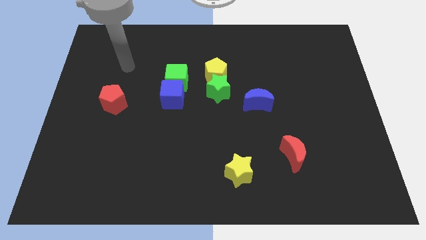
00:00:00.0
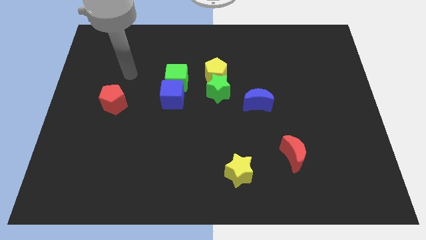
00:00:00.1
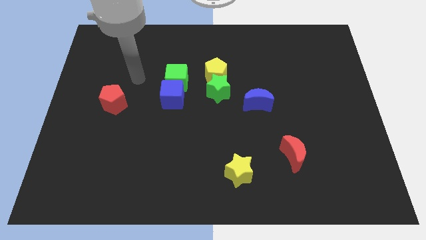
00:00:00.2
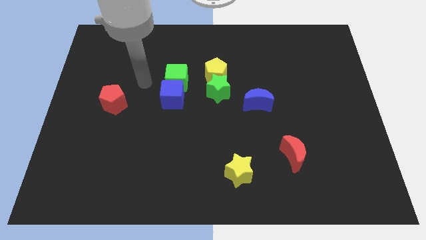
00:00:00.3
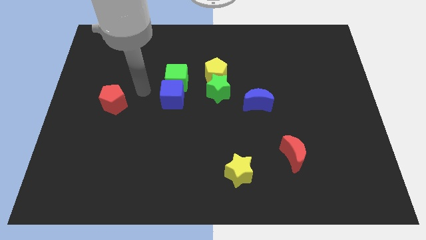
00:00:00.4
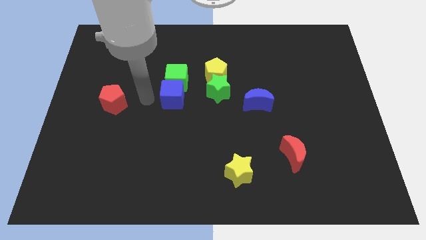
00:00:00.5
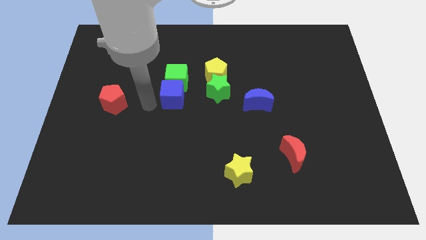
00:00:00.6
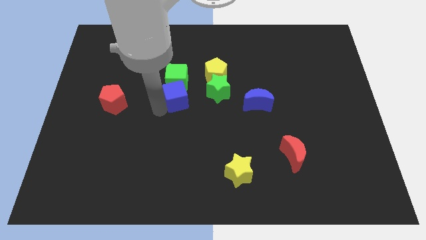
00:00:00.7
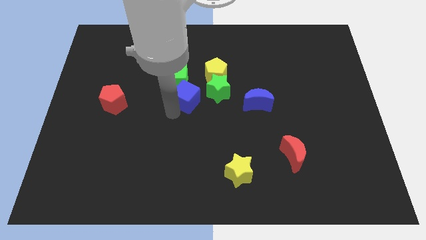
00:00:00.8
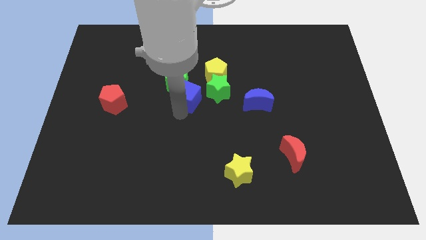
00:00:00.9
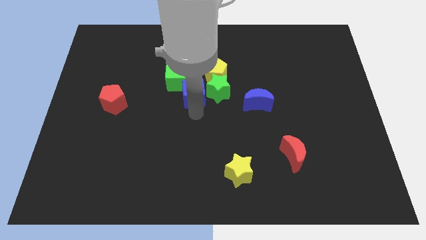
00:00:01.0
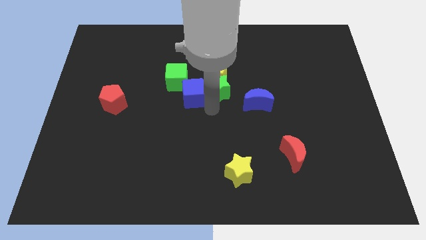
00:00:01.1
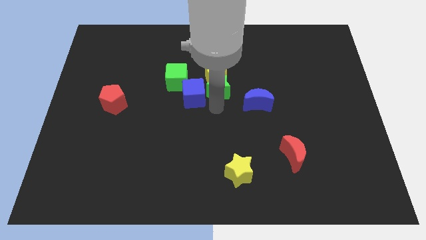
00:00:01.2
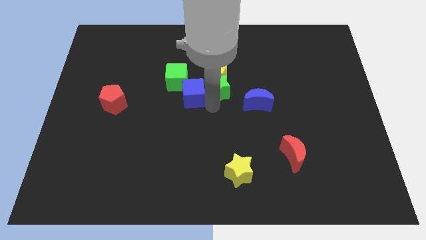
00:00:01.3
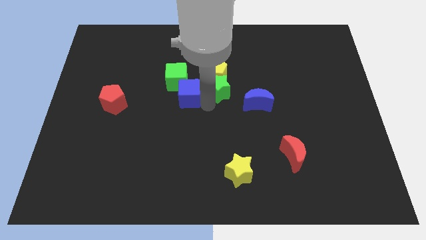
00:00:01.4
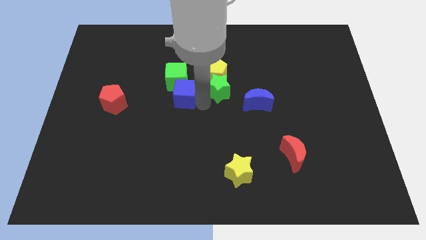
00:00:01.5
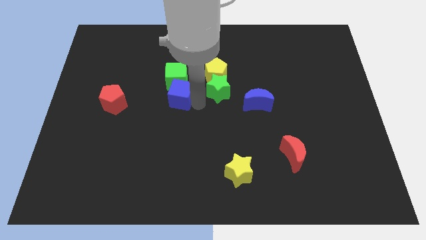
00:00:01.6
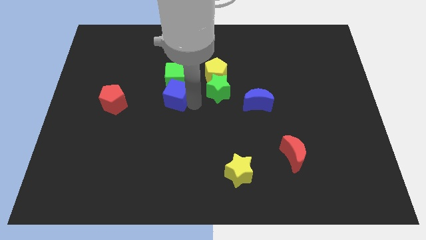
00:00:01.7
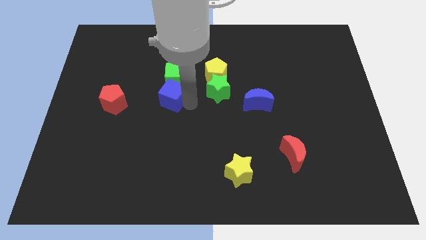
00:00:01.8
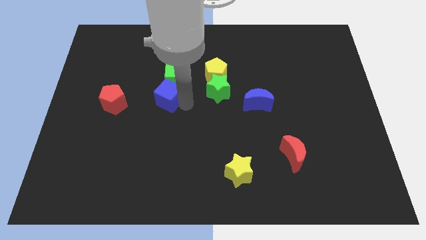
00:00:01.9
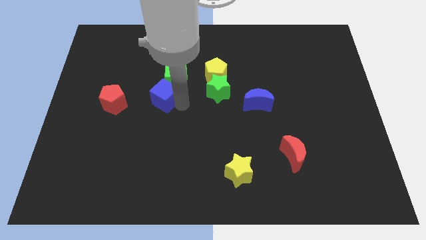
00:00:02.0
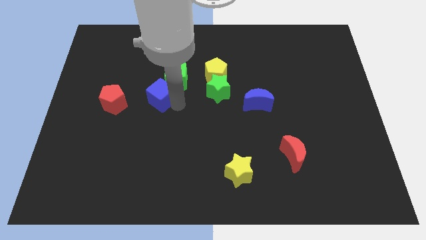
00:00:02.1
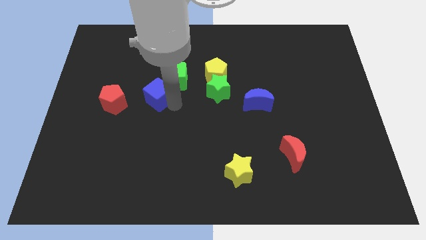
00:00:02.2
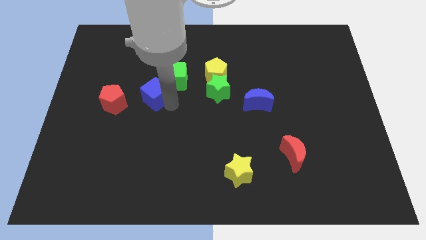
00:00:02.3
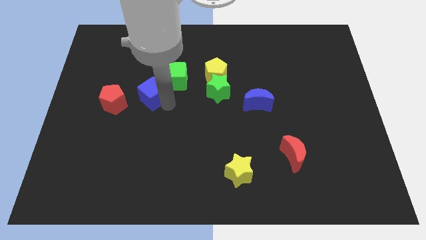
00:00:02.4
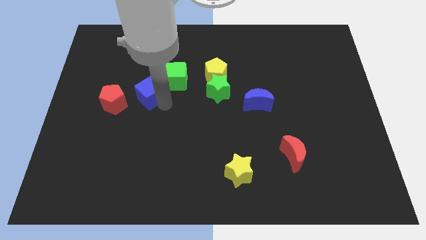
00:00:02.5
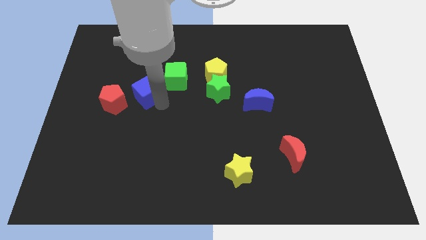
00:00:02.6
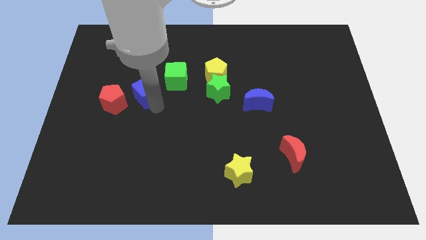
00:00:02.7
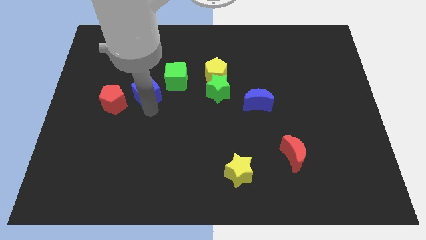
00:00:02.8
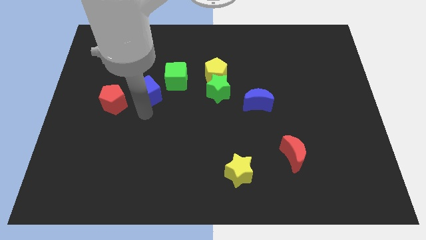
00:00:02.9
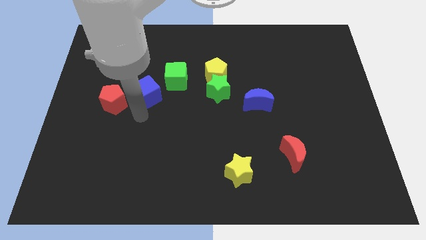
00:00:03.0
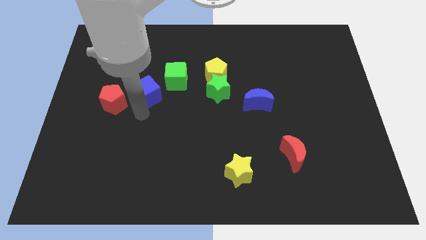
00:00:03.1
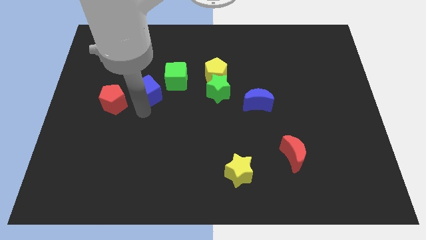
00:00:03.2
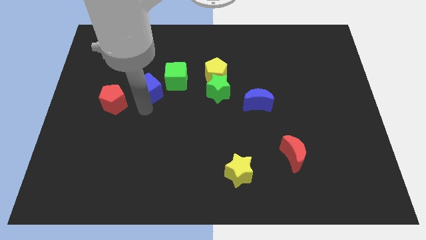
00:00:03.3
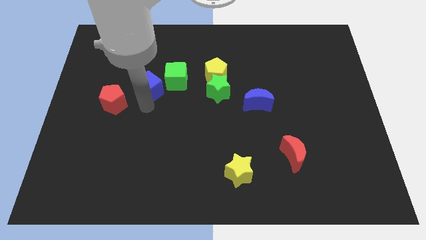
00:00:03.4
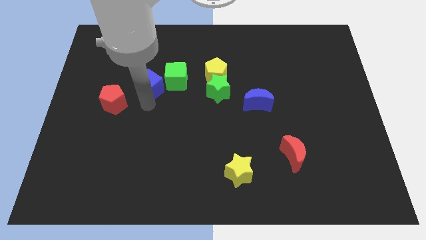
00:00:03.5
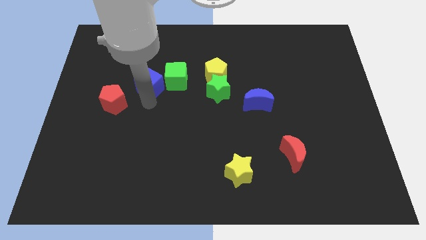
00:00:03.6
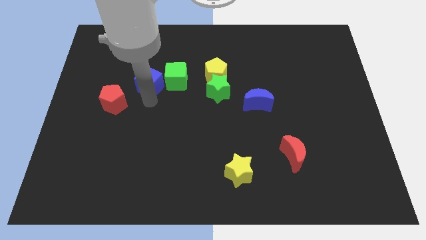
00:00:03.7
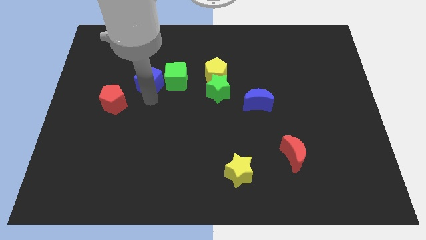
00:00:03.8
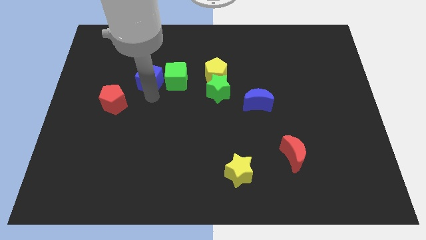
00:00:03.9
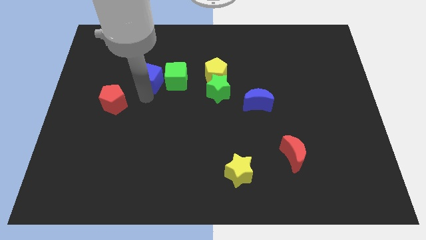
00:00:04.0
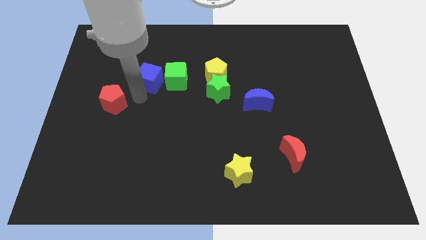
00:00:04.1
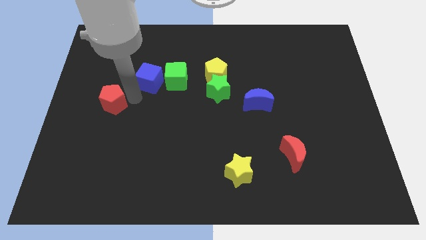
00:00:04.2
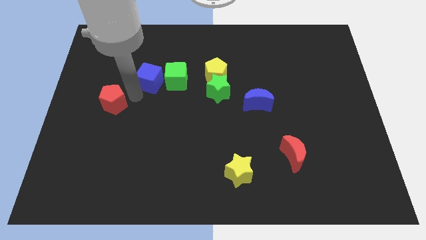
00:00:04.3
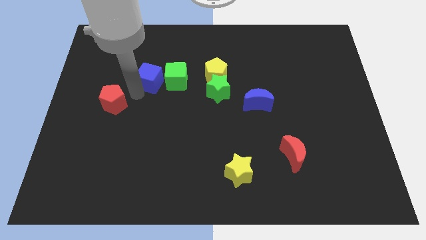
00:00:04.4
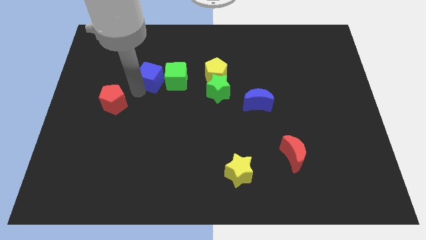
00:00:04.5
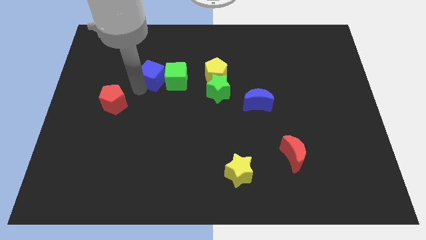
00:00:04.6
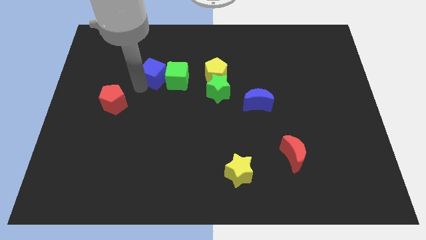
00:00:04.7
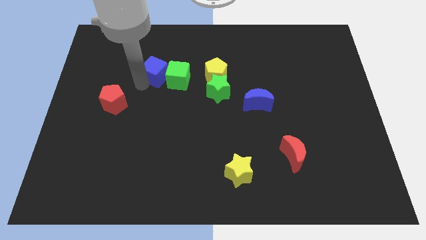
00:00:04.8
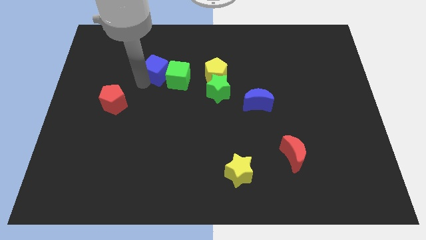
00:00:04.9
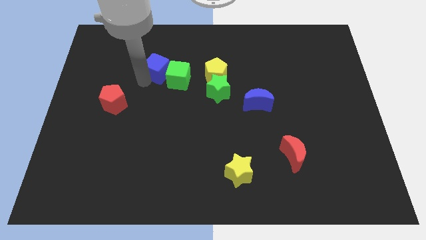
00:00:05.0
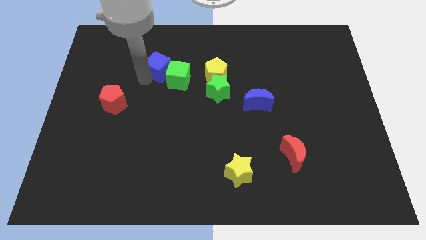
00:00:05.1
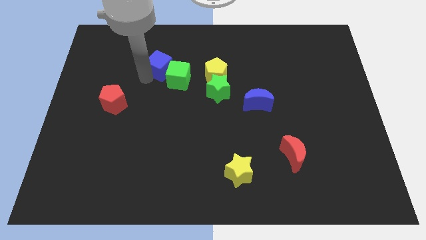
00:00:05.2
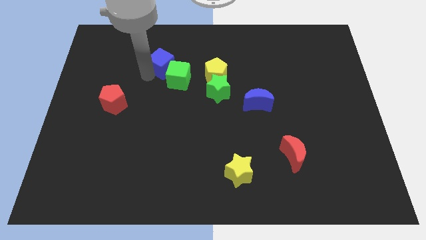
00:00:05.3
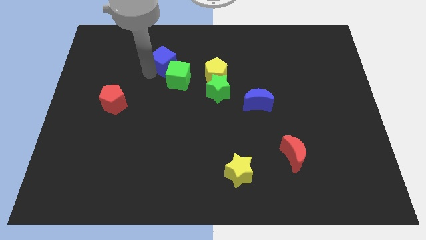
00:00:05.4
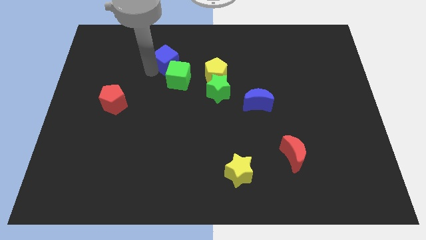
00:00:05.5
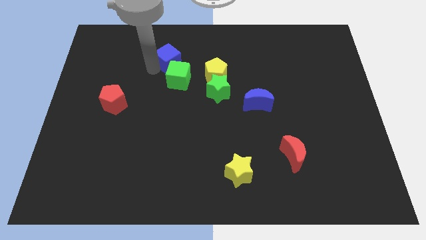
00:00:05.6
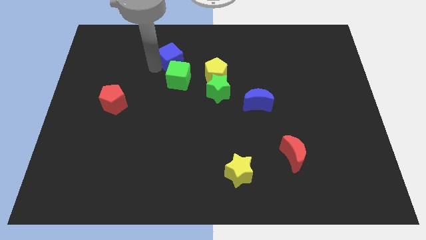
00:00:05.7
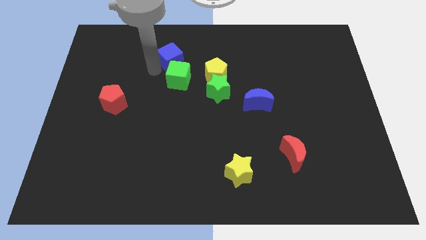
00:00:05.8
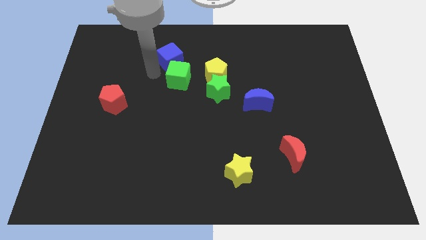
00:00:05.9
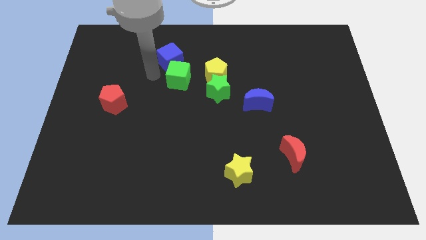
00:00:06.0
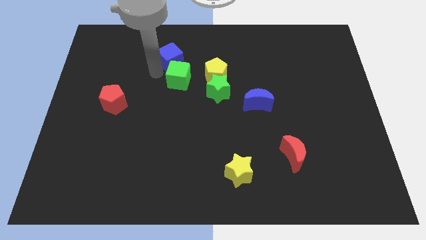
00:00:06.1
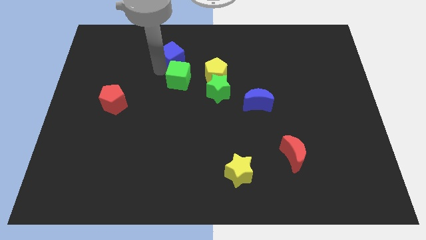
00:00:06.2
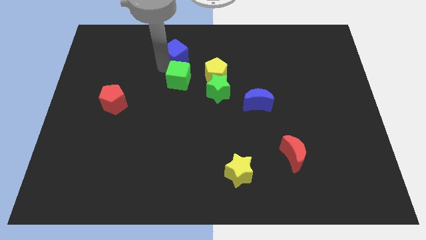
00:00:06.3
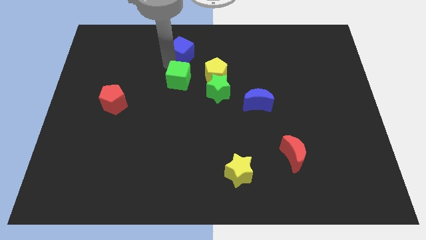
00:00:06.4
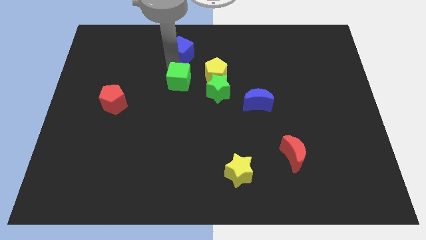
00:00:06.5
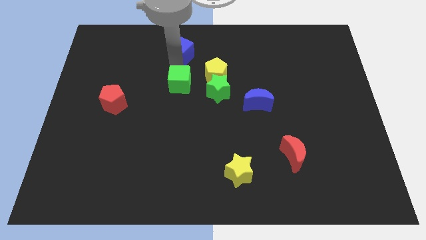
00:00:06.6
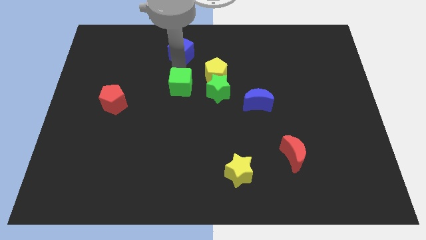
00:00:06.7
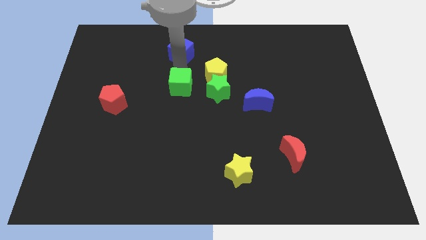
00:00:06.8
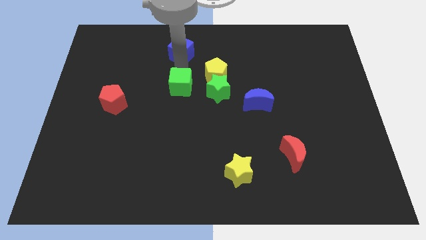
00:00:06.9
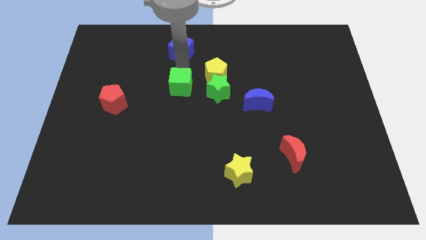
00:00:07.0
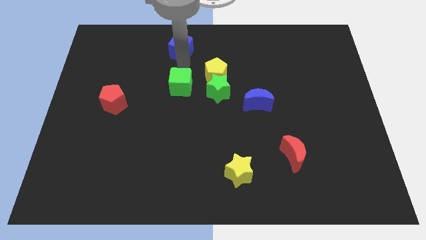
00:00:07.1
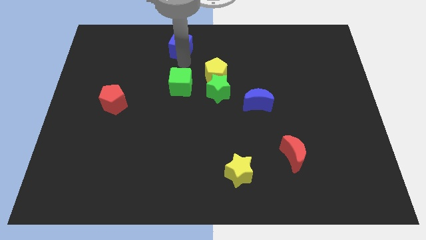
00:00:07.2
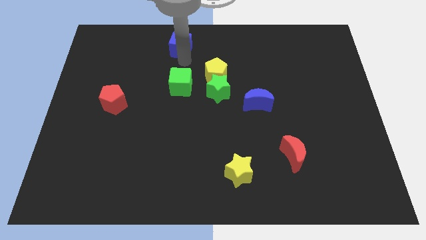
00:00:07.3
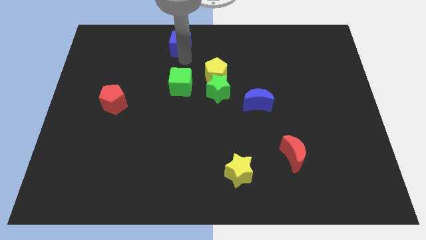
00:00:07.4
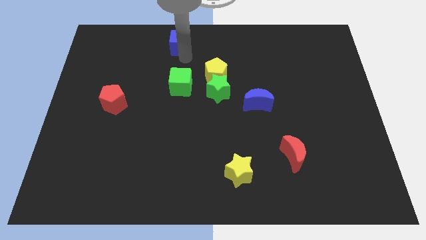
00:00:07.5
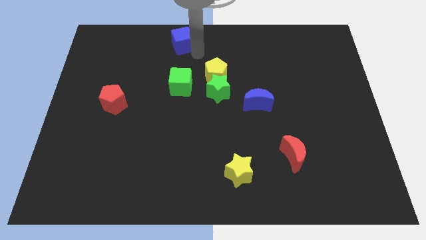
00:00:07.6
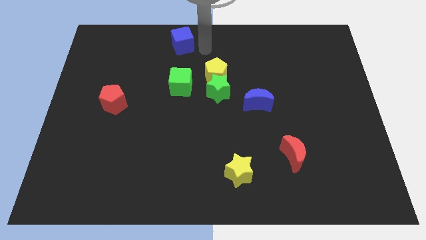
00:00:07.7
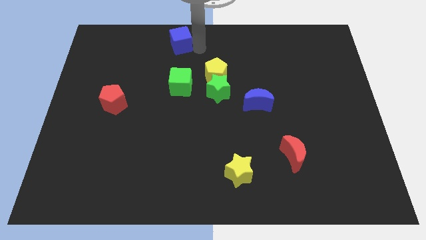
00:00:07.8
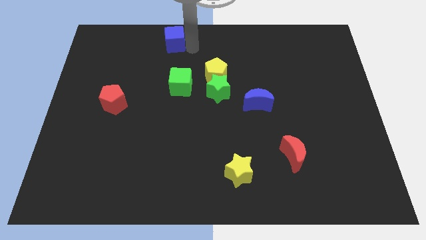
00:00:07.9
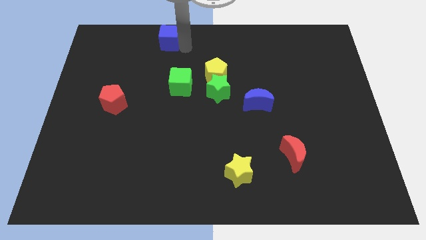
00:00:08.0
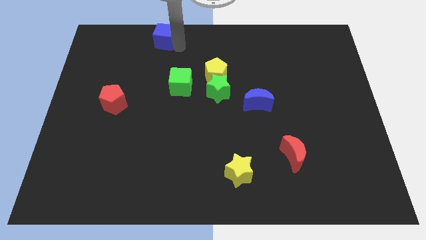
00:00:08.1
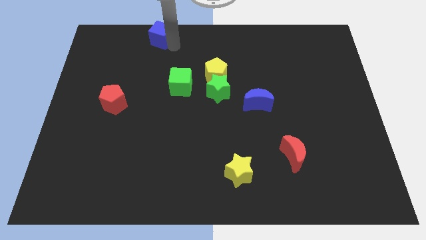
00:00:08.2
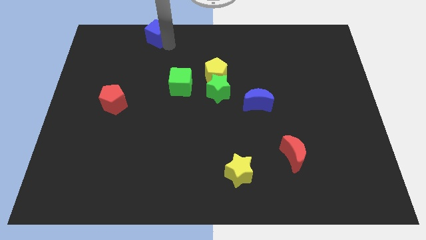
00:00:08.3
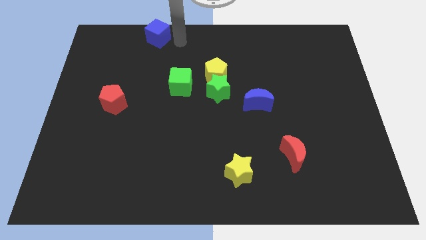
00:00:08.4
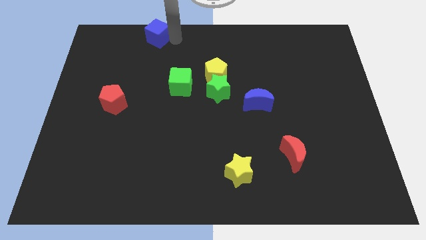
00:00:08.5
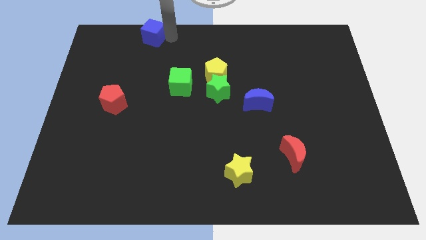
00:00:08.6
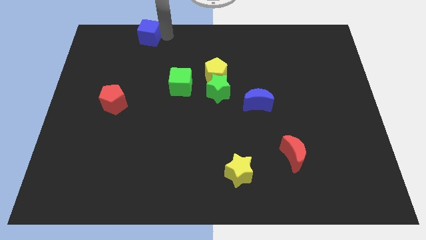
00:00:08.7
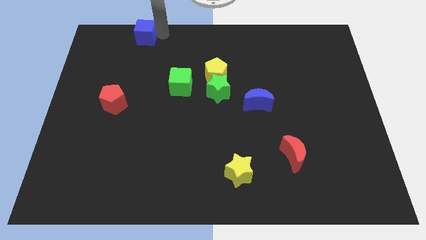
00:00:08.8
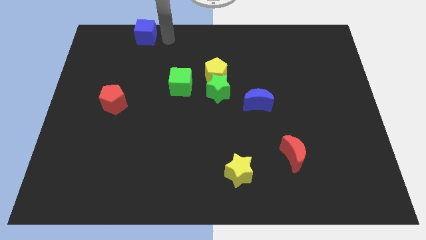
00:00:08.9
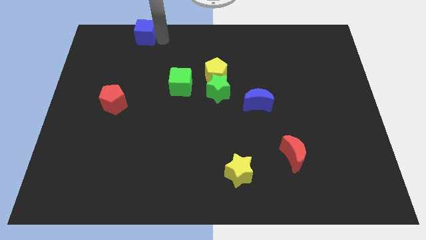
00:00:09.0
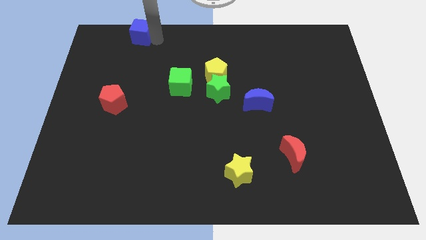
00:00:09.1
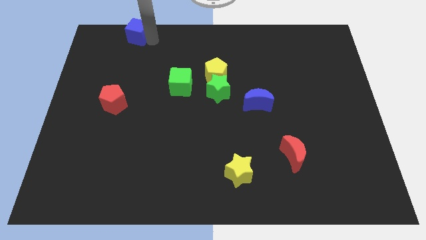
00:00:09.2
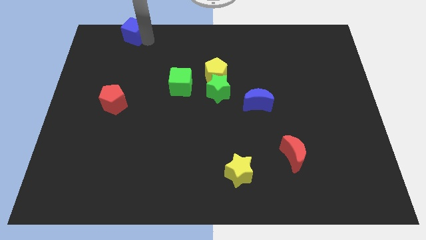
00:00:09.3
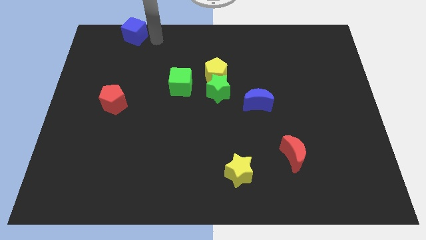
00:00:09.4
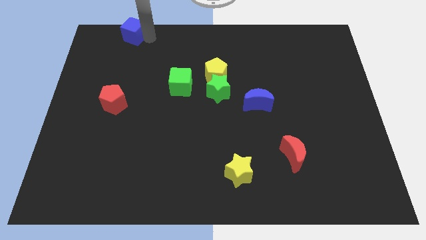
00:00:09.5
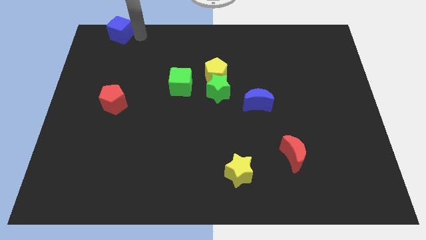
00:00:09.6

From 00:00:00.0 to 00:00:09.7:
put the blue cube to the top left
